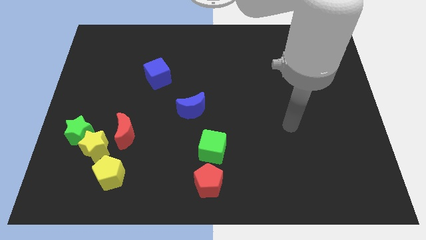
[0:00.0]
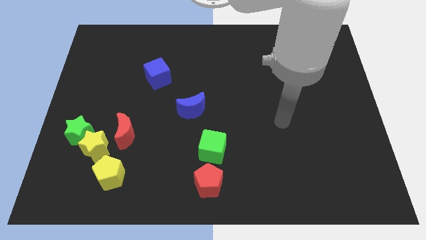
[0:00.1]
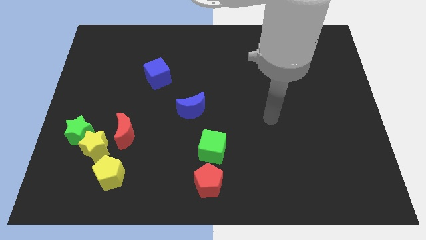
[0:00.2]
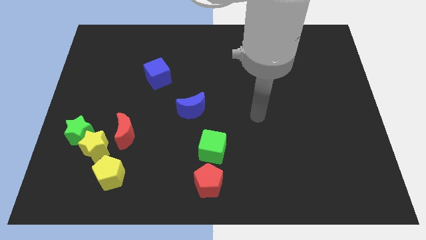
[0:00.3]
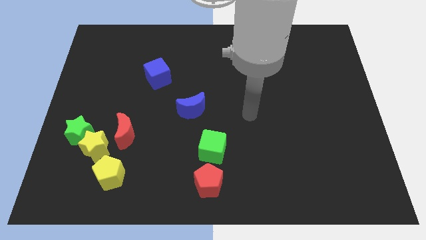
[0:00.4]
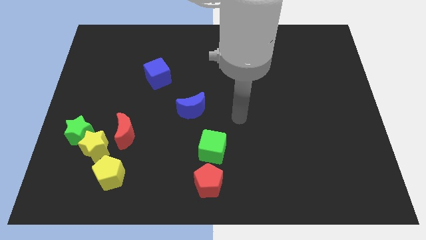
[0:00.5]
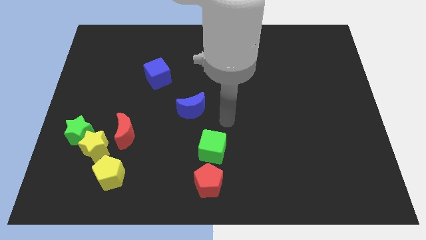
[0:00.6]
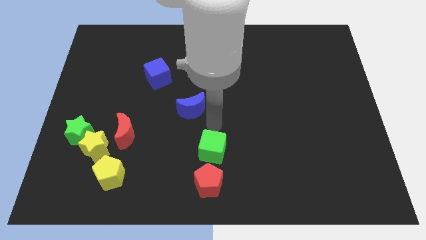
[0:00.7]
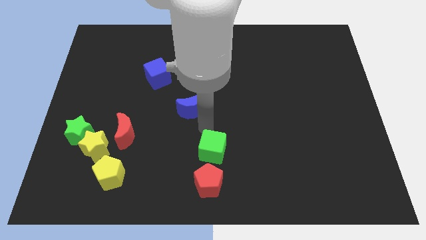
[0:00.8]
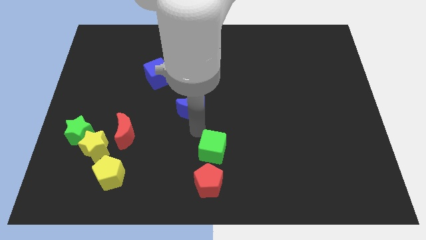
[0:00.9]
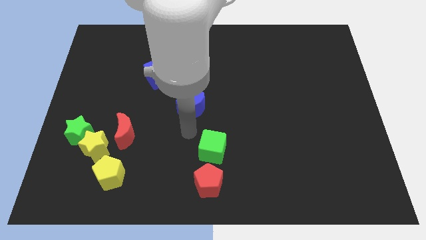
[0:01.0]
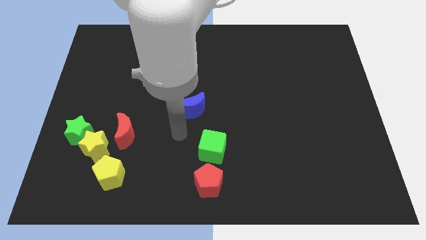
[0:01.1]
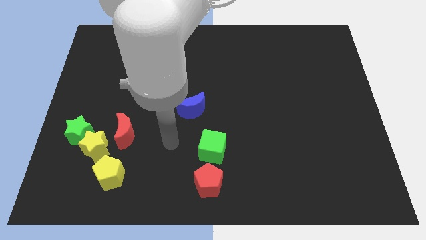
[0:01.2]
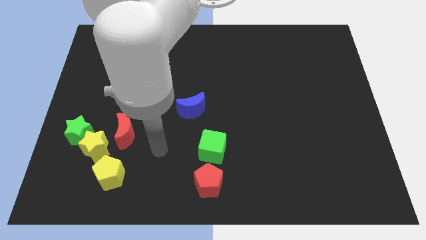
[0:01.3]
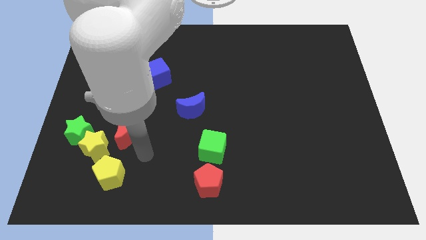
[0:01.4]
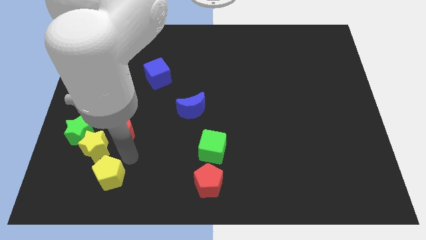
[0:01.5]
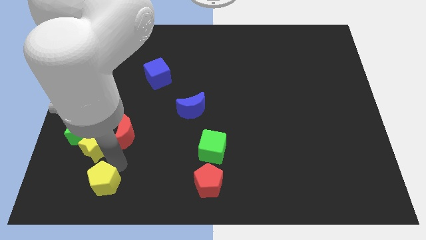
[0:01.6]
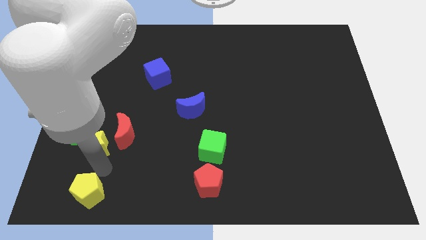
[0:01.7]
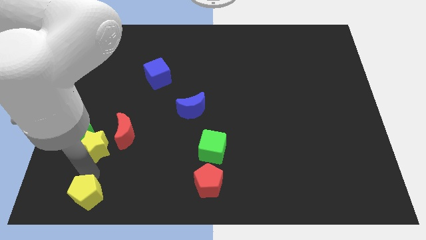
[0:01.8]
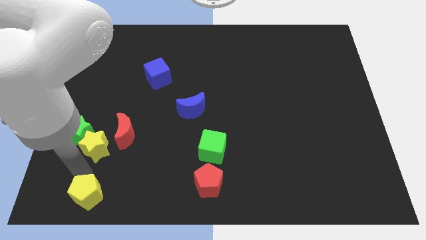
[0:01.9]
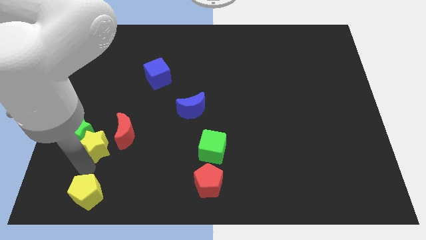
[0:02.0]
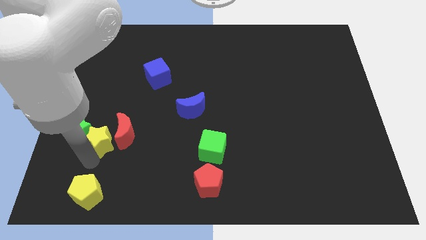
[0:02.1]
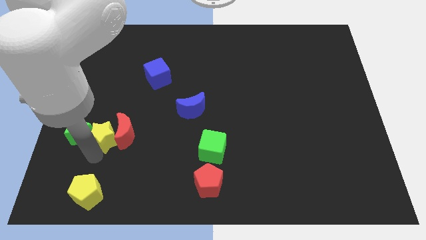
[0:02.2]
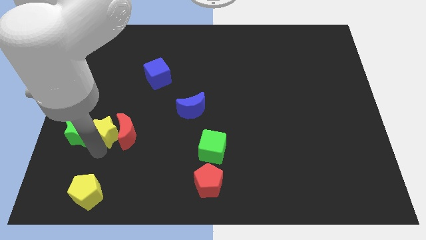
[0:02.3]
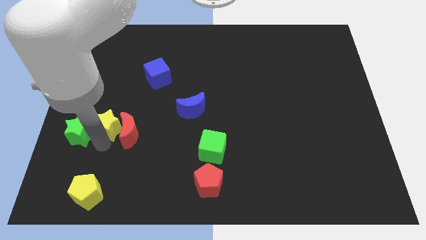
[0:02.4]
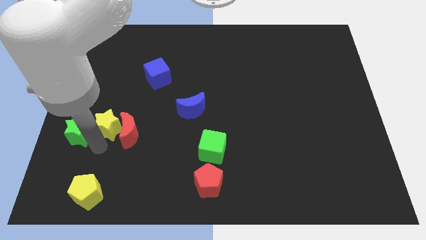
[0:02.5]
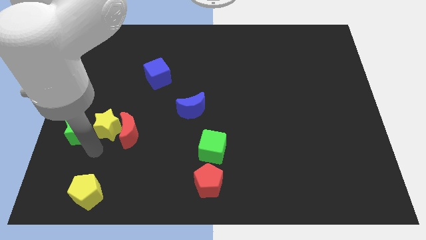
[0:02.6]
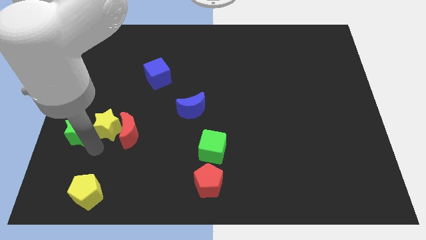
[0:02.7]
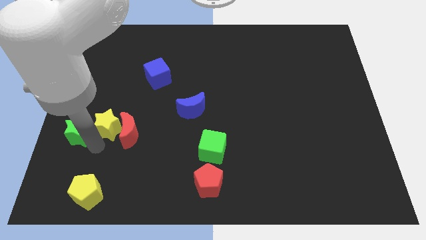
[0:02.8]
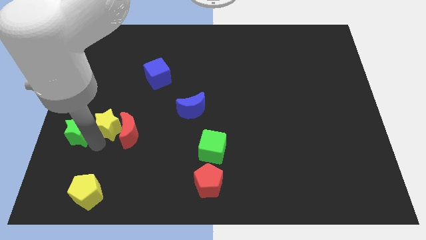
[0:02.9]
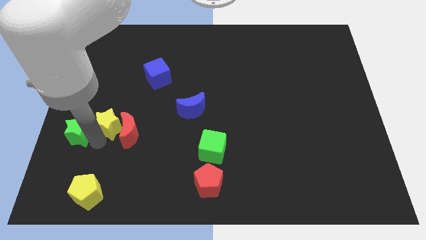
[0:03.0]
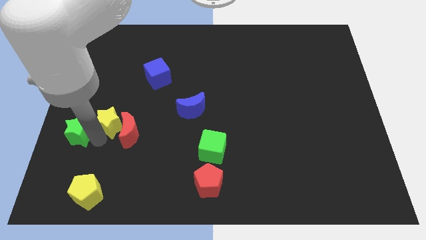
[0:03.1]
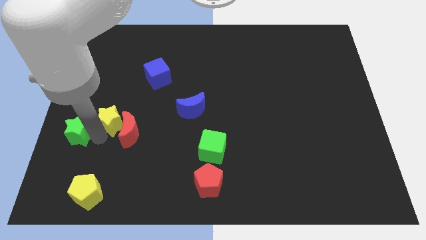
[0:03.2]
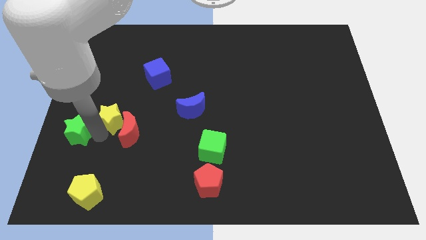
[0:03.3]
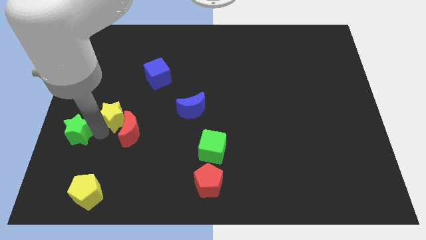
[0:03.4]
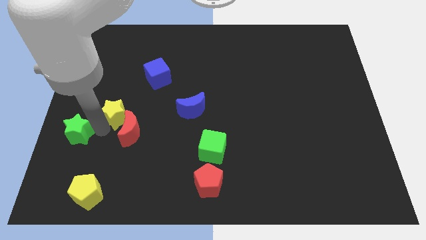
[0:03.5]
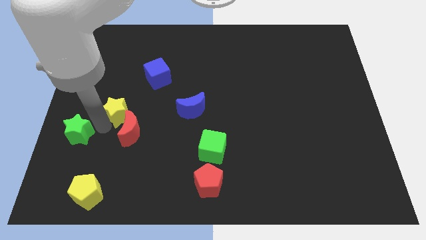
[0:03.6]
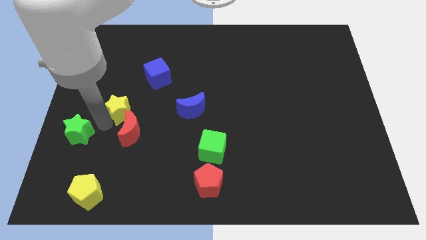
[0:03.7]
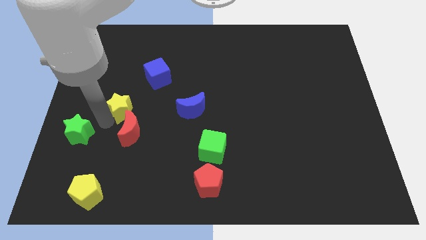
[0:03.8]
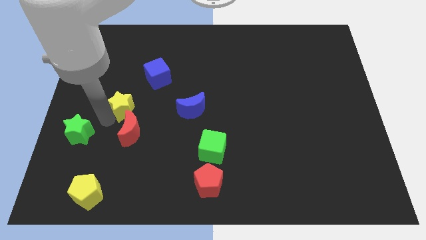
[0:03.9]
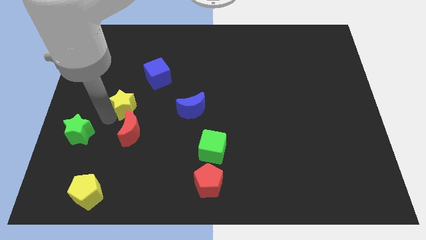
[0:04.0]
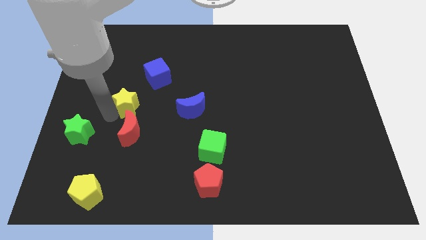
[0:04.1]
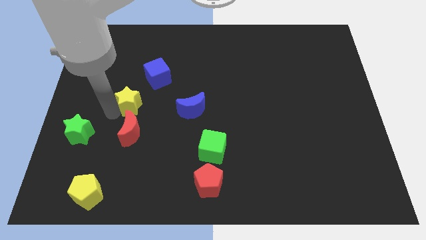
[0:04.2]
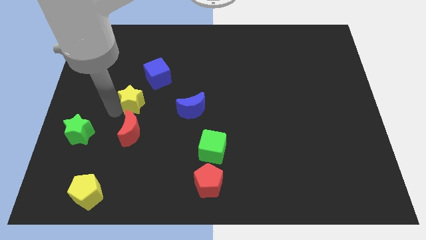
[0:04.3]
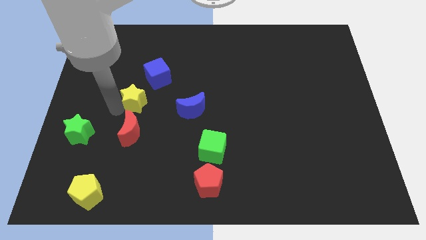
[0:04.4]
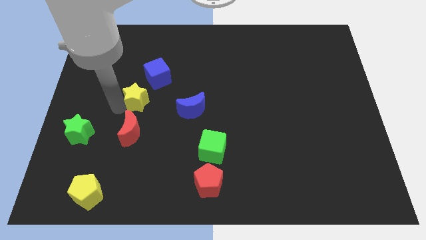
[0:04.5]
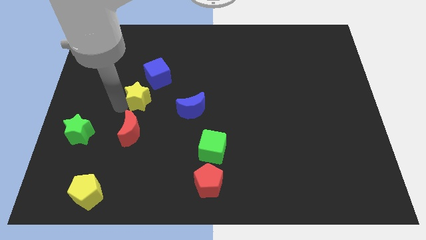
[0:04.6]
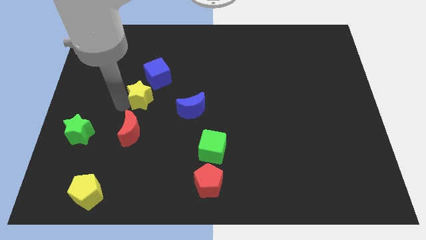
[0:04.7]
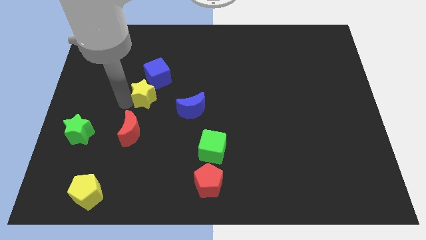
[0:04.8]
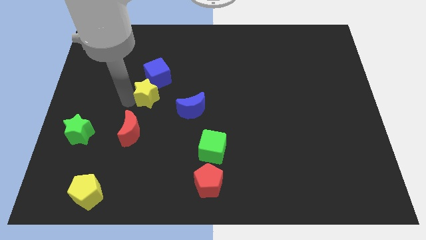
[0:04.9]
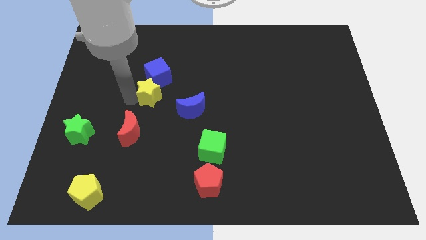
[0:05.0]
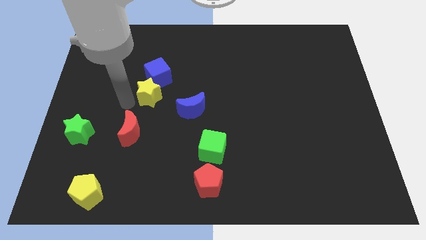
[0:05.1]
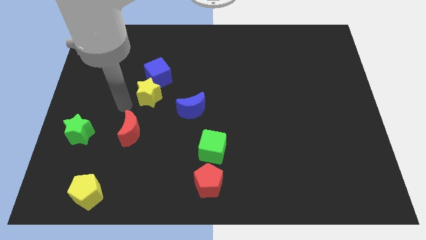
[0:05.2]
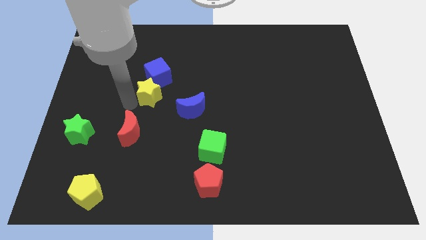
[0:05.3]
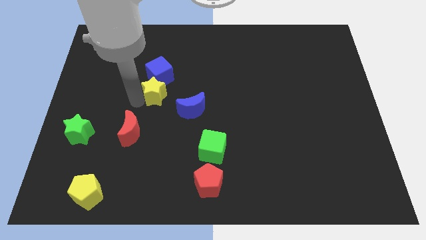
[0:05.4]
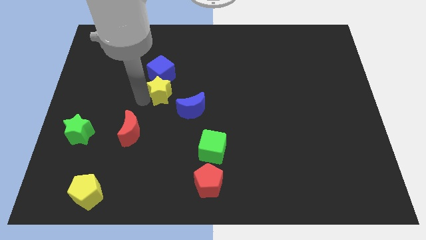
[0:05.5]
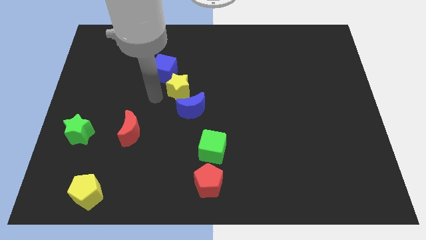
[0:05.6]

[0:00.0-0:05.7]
move the yellow star upwards and right

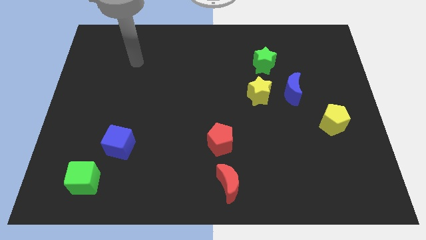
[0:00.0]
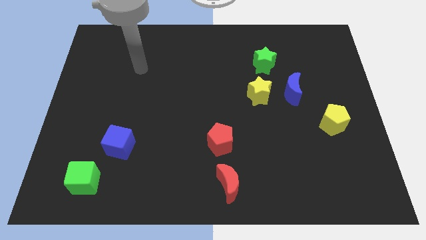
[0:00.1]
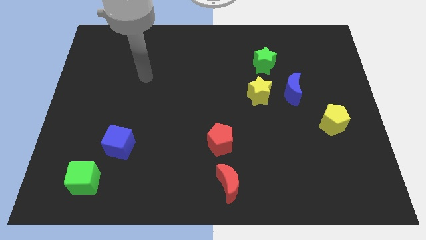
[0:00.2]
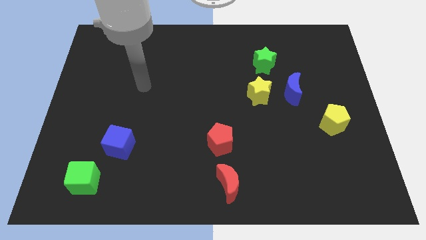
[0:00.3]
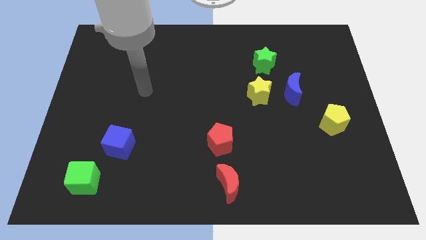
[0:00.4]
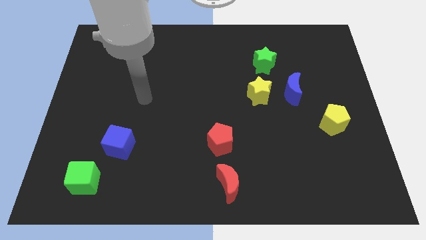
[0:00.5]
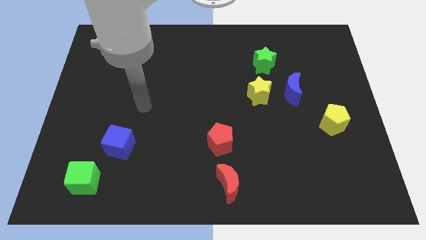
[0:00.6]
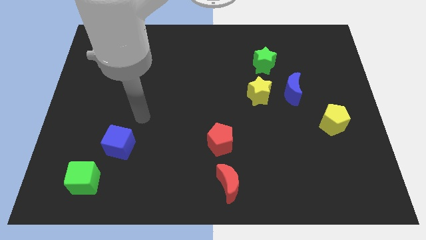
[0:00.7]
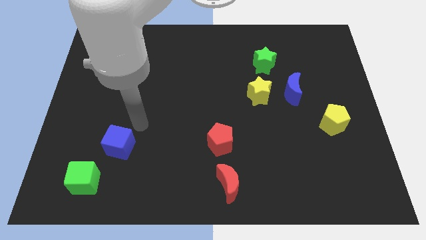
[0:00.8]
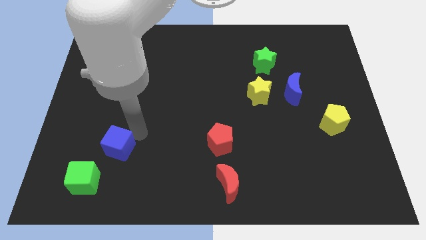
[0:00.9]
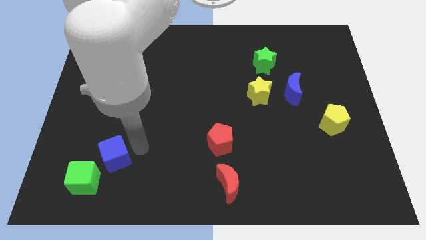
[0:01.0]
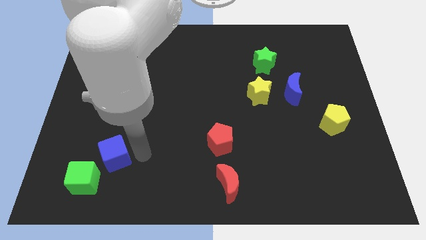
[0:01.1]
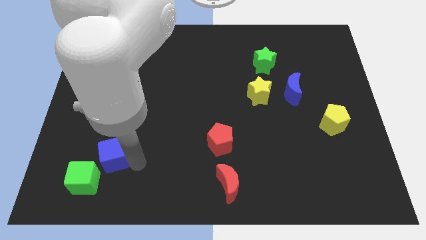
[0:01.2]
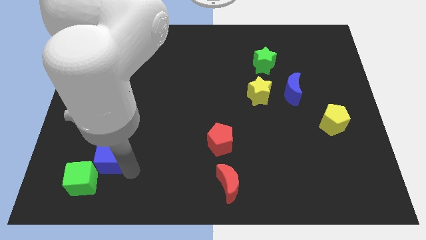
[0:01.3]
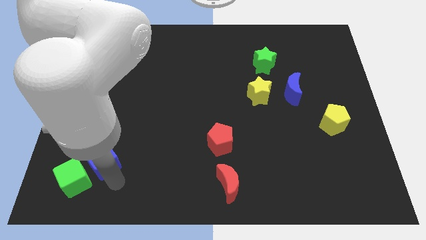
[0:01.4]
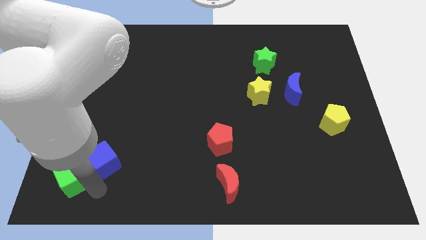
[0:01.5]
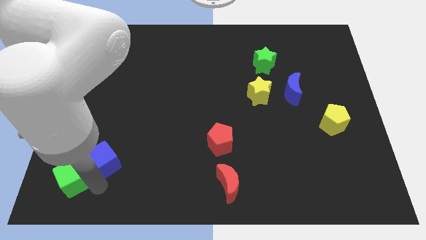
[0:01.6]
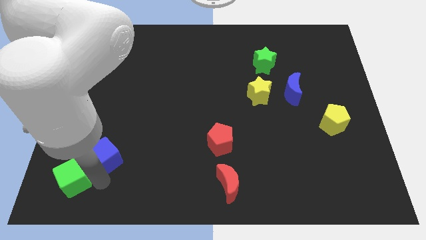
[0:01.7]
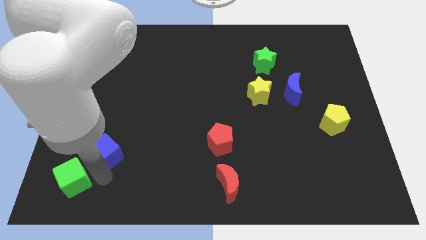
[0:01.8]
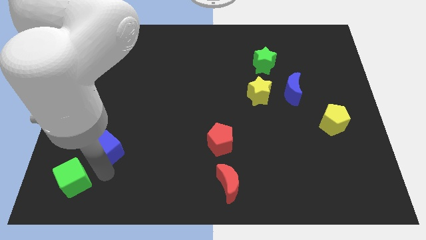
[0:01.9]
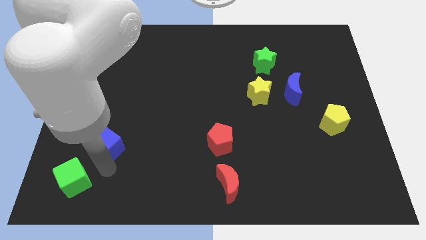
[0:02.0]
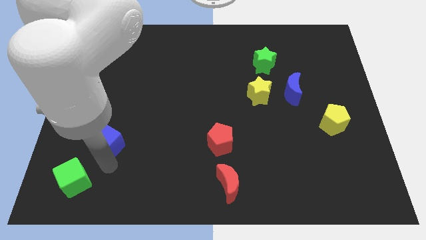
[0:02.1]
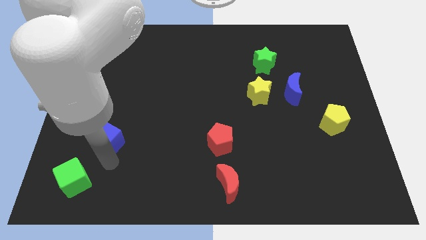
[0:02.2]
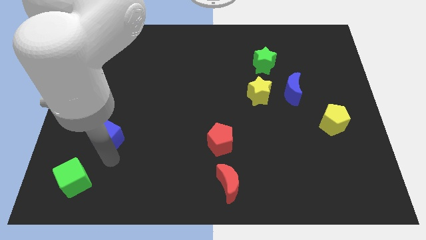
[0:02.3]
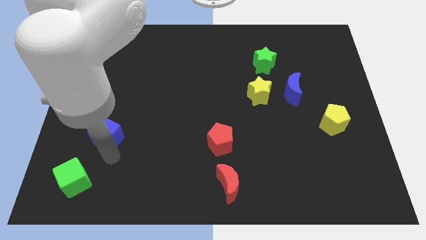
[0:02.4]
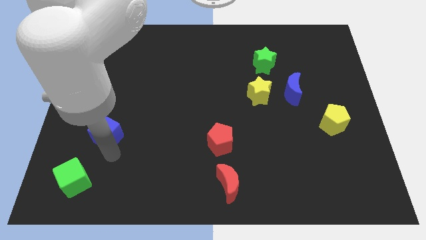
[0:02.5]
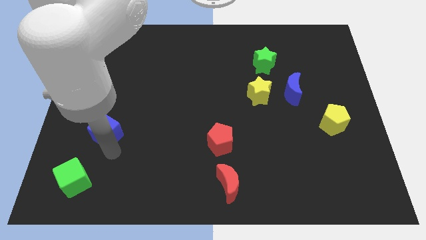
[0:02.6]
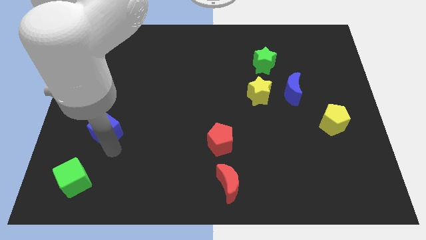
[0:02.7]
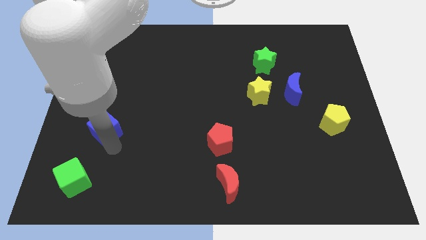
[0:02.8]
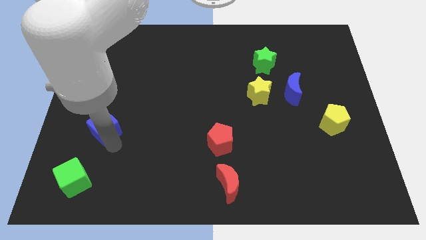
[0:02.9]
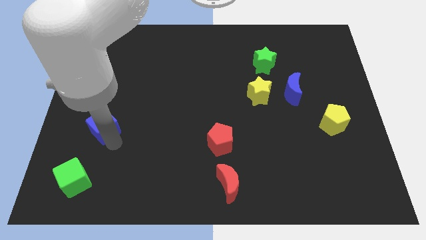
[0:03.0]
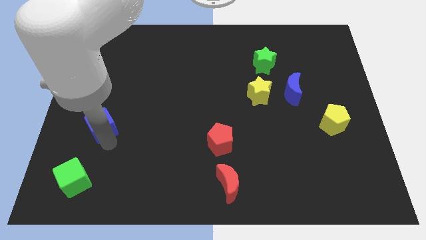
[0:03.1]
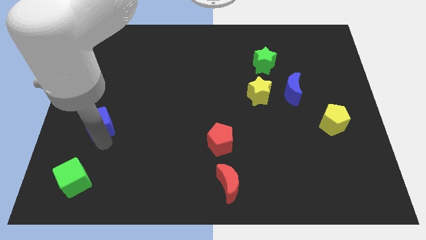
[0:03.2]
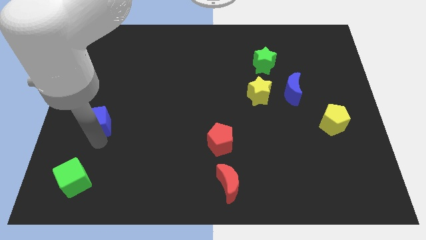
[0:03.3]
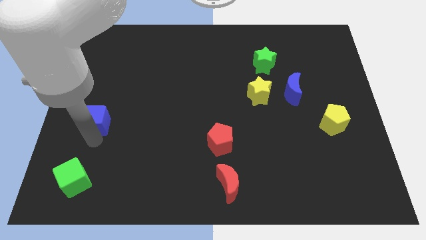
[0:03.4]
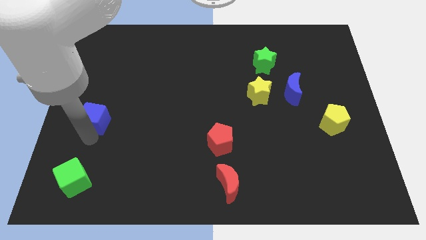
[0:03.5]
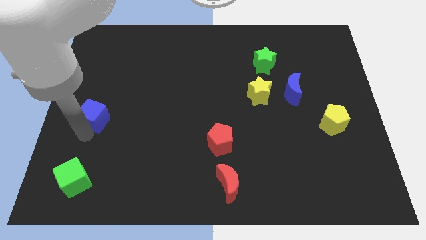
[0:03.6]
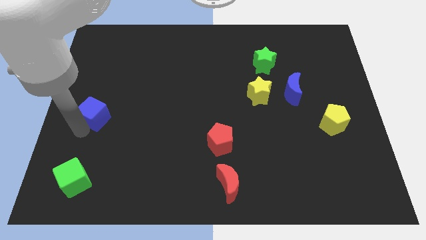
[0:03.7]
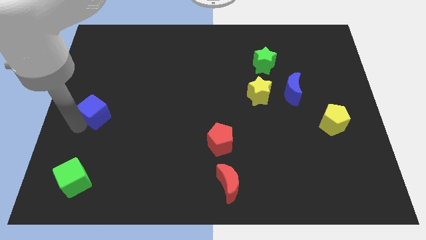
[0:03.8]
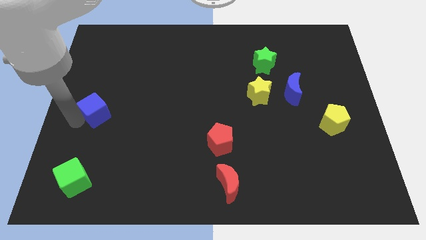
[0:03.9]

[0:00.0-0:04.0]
move the blue cube a bit up
